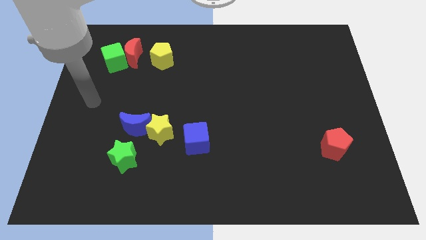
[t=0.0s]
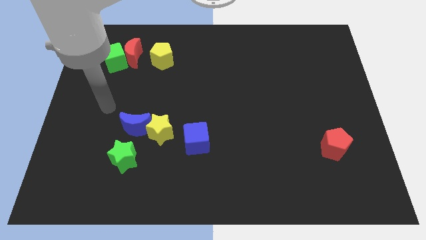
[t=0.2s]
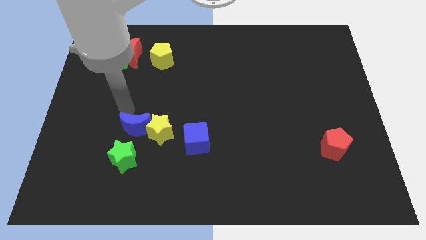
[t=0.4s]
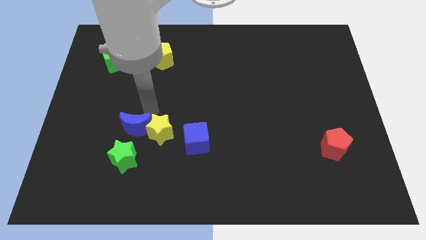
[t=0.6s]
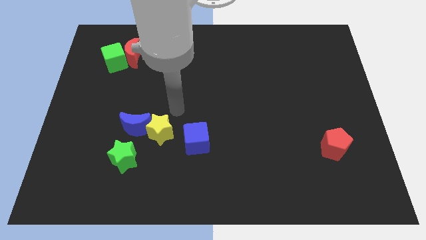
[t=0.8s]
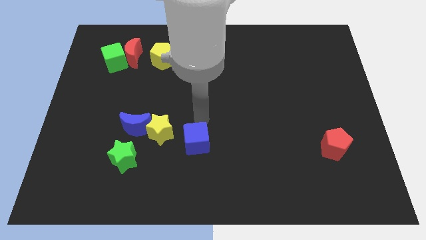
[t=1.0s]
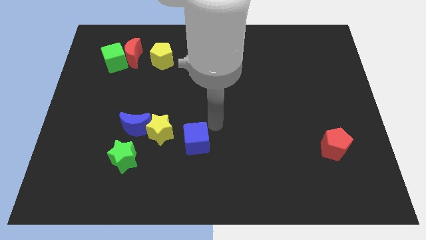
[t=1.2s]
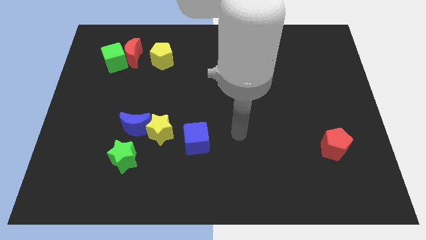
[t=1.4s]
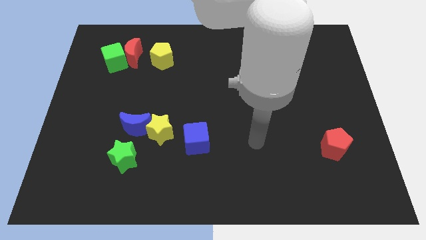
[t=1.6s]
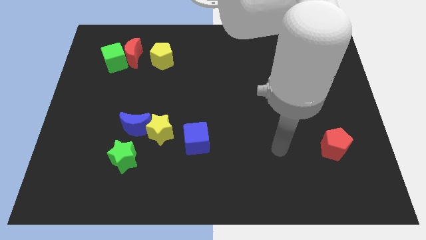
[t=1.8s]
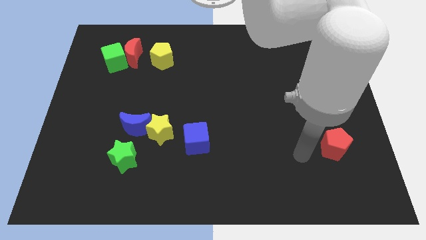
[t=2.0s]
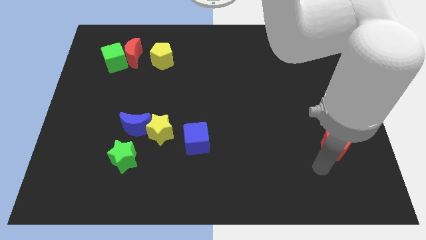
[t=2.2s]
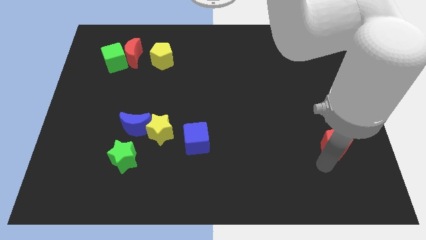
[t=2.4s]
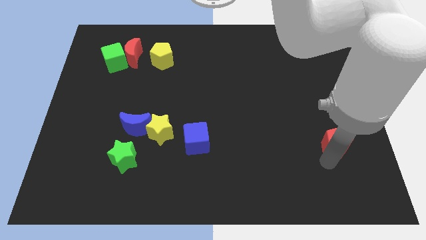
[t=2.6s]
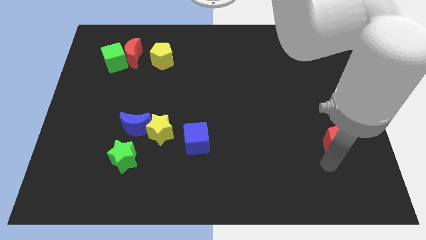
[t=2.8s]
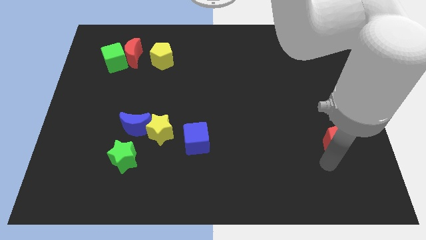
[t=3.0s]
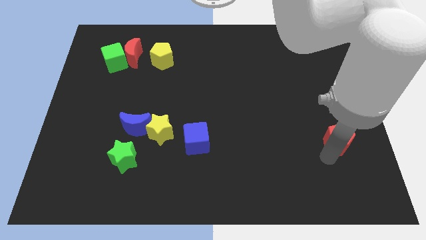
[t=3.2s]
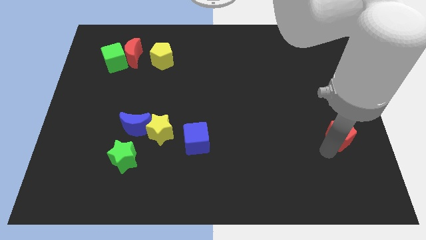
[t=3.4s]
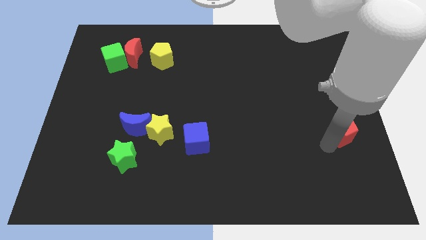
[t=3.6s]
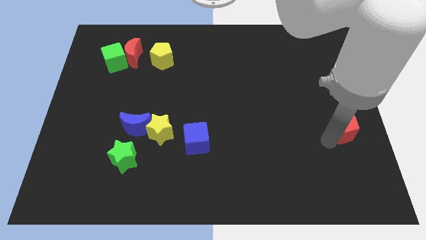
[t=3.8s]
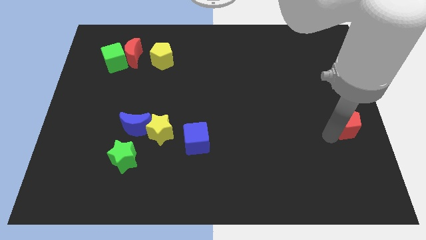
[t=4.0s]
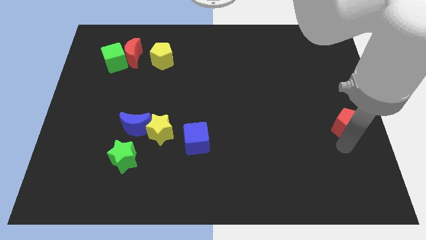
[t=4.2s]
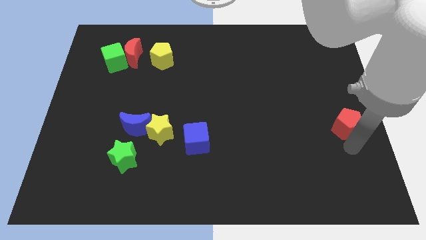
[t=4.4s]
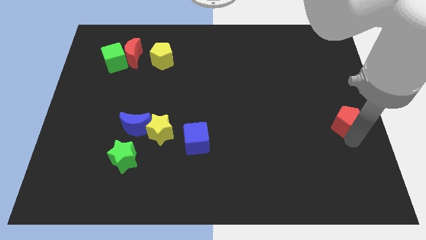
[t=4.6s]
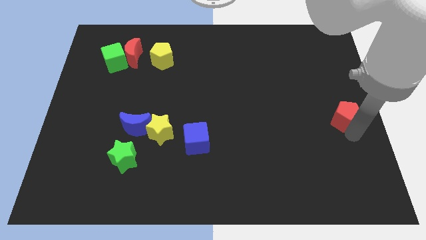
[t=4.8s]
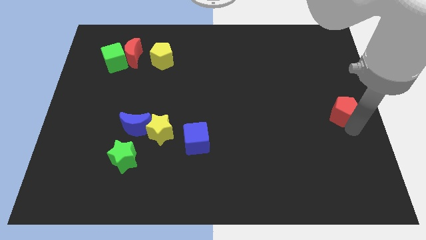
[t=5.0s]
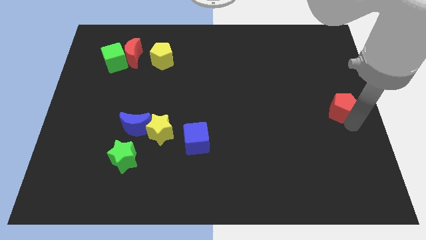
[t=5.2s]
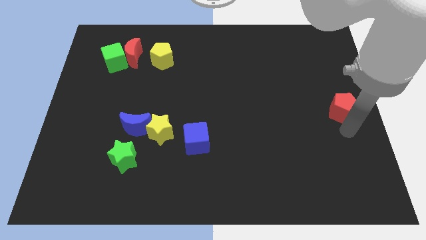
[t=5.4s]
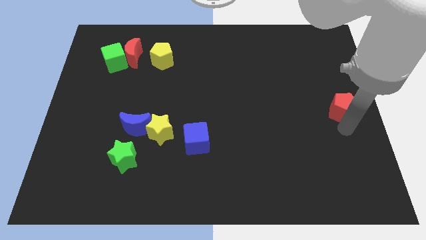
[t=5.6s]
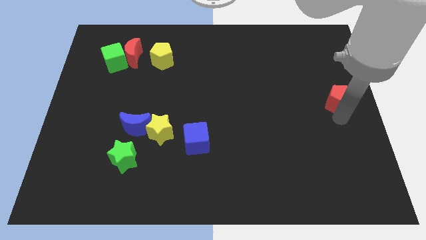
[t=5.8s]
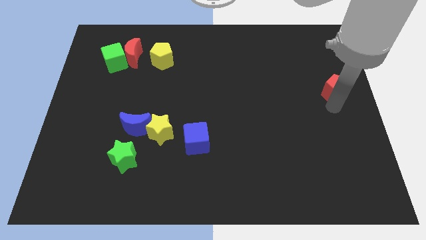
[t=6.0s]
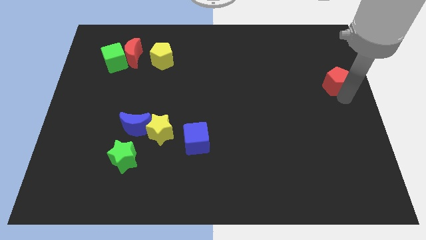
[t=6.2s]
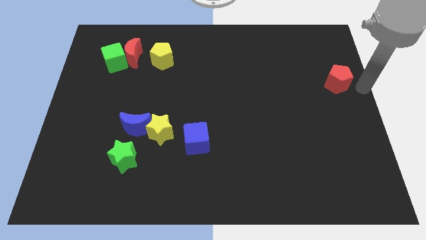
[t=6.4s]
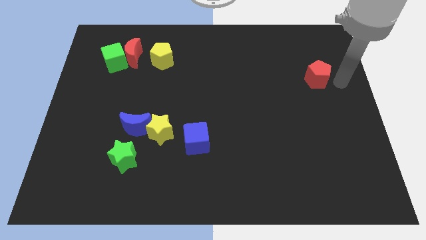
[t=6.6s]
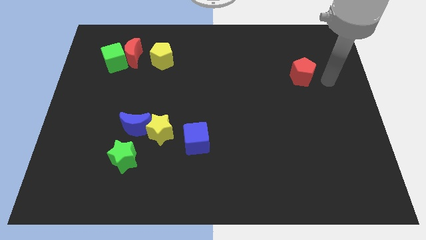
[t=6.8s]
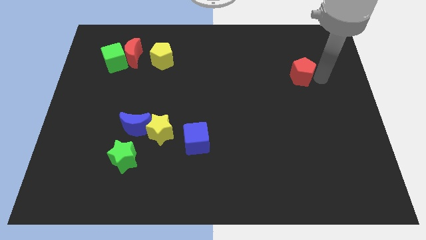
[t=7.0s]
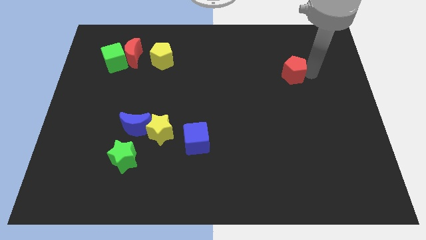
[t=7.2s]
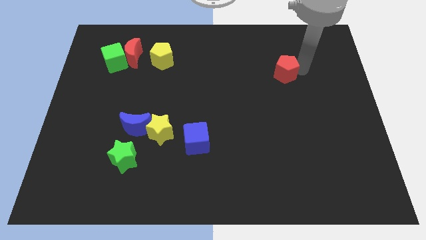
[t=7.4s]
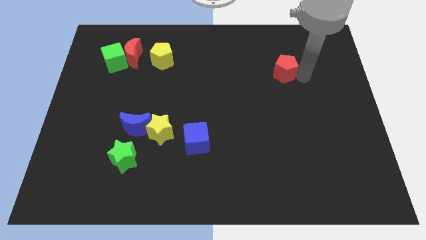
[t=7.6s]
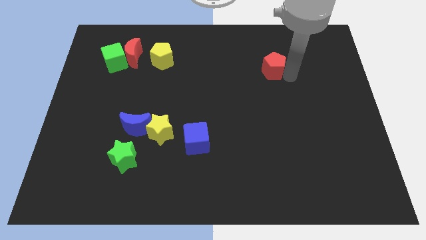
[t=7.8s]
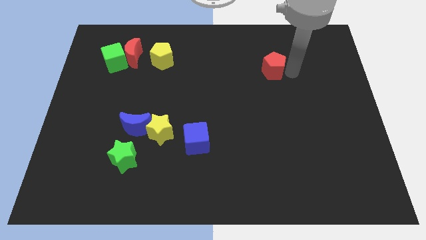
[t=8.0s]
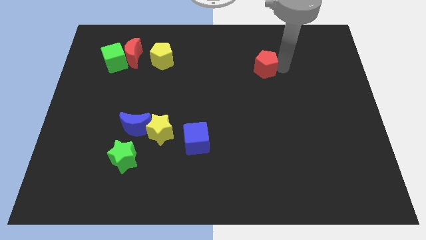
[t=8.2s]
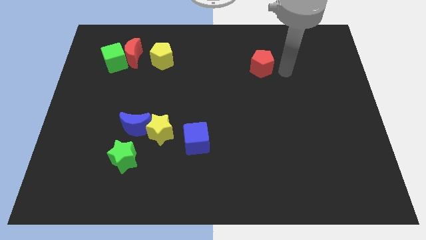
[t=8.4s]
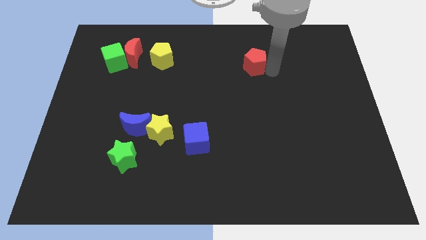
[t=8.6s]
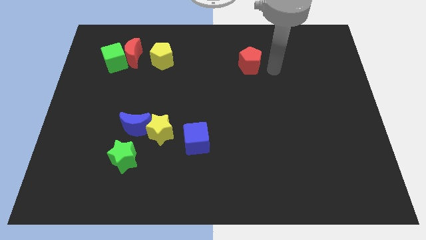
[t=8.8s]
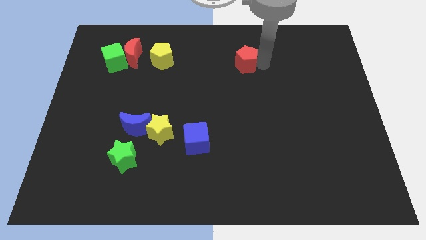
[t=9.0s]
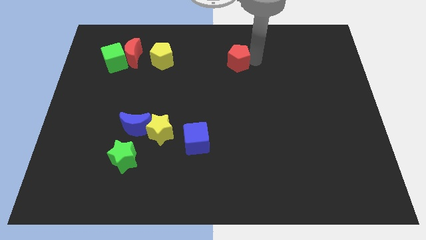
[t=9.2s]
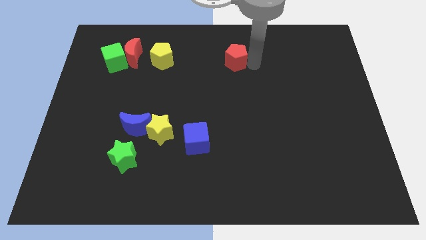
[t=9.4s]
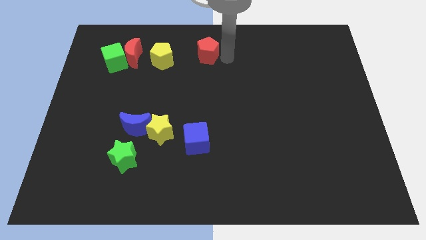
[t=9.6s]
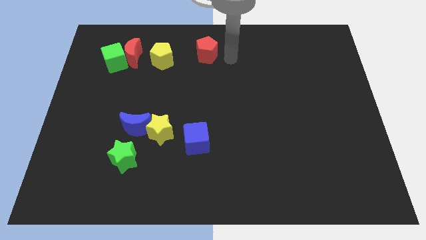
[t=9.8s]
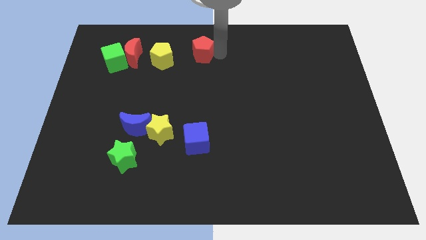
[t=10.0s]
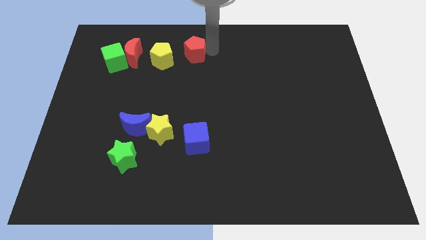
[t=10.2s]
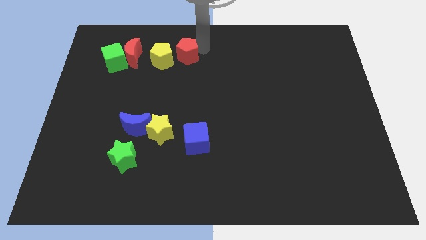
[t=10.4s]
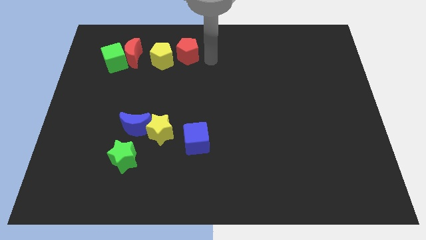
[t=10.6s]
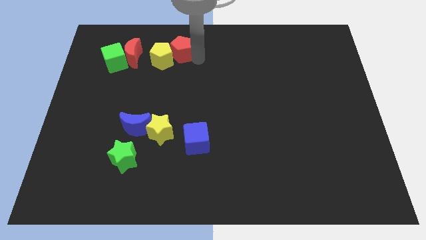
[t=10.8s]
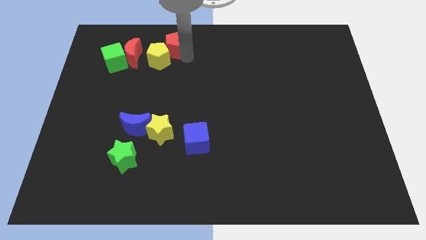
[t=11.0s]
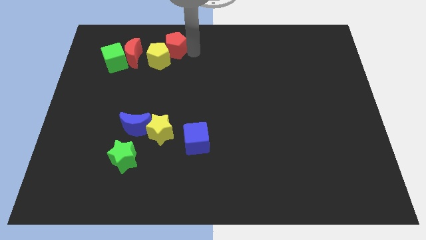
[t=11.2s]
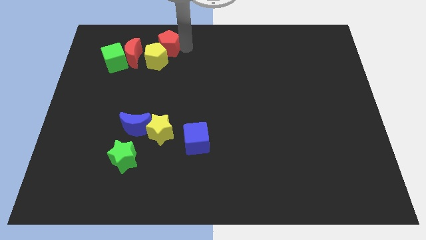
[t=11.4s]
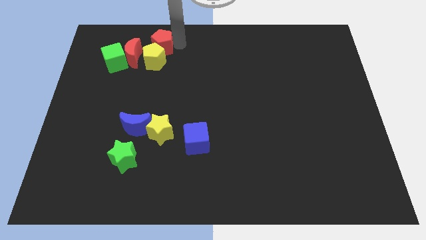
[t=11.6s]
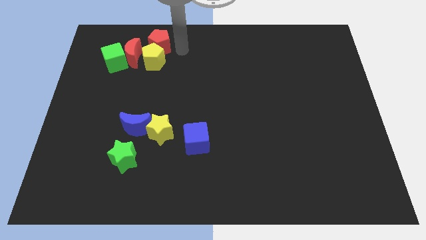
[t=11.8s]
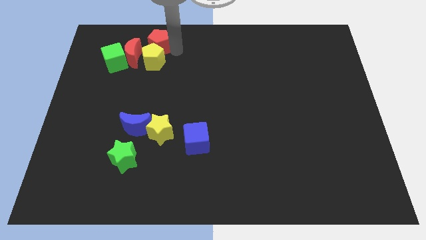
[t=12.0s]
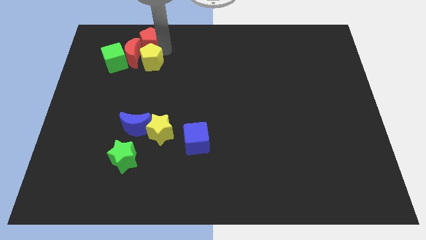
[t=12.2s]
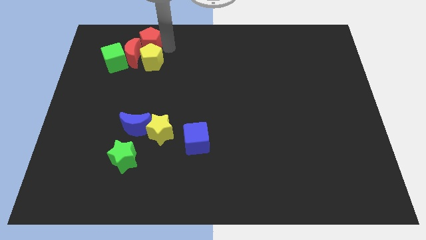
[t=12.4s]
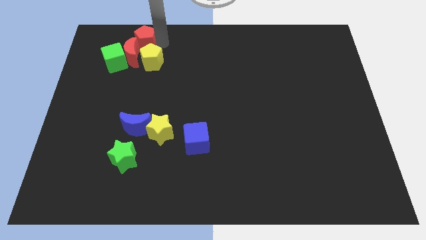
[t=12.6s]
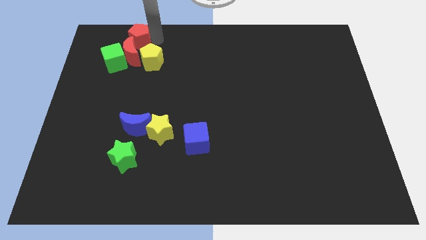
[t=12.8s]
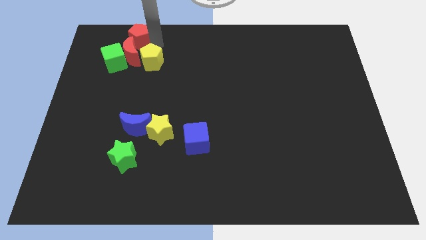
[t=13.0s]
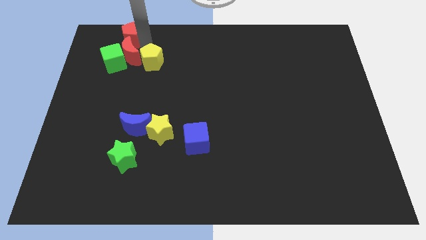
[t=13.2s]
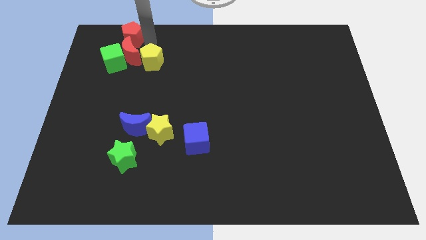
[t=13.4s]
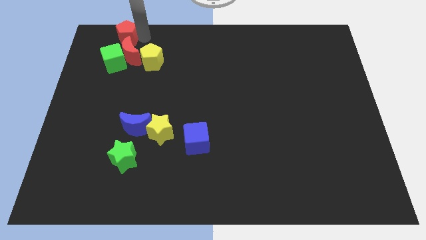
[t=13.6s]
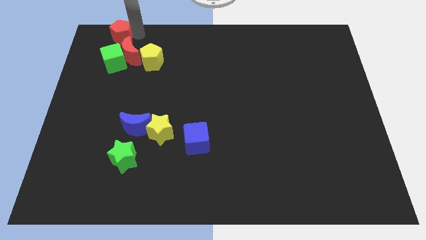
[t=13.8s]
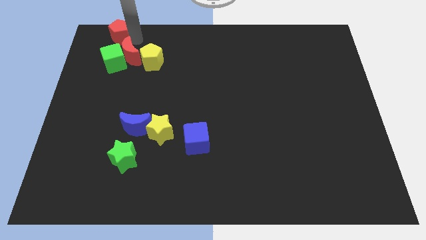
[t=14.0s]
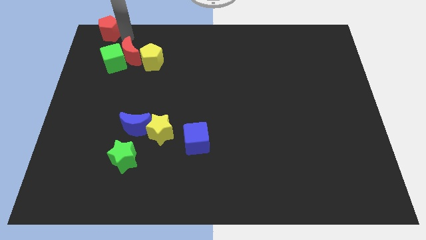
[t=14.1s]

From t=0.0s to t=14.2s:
slide the red pentagon to the top left of the board
